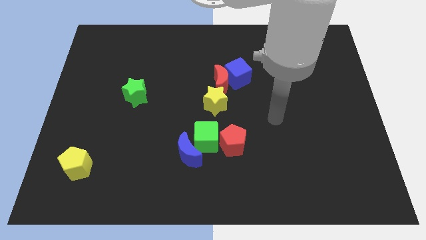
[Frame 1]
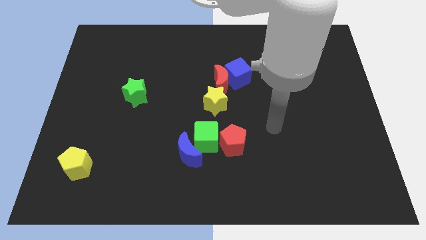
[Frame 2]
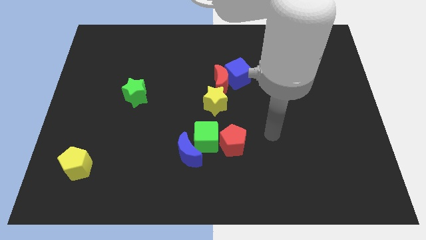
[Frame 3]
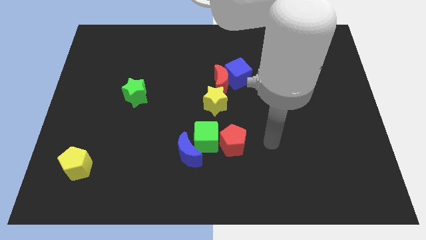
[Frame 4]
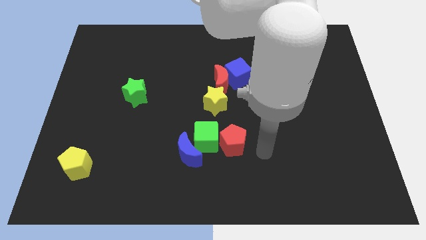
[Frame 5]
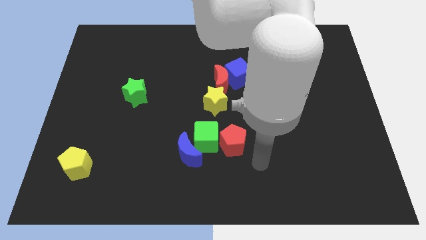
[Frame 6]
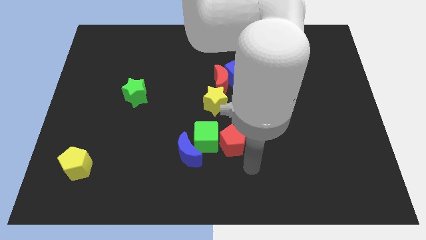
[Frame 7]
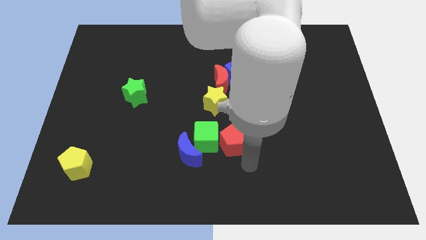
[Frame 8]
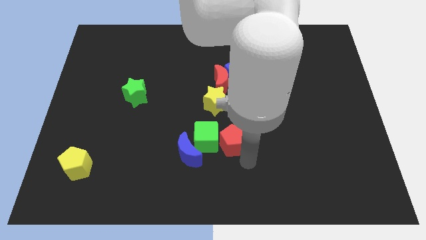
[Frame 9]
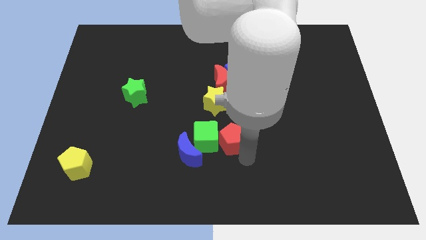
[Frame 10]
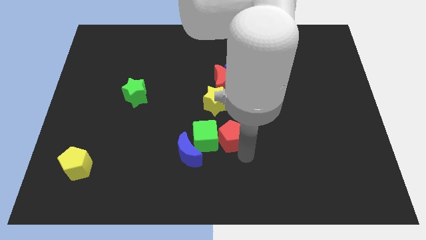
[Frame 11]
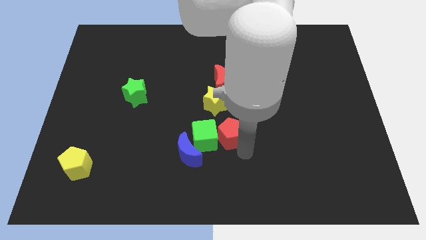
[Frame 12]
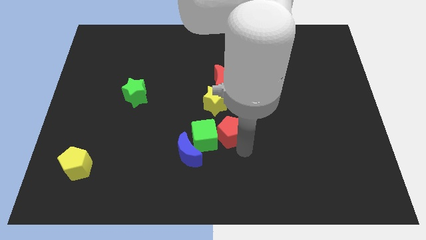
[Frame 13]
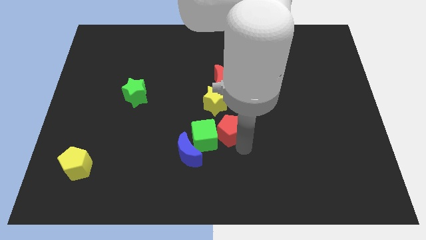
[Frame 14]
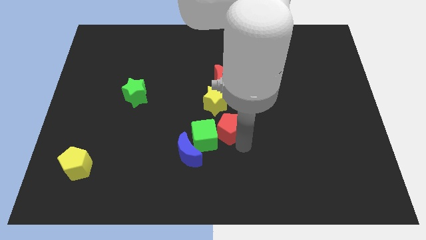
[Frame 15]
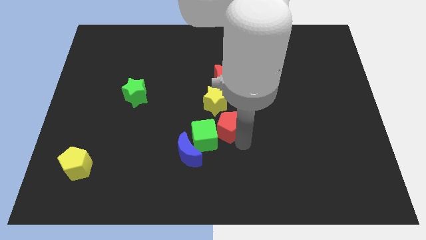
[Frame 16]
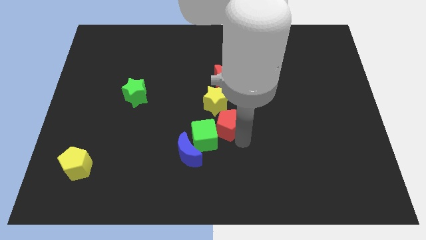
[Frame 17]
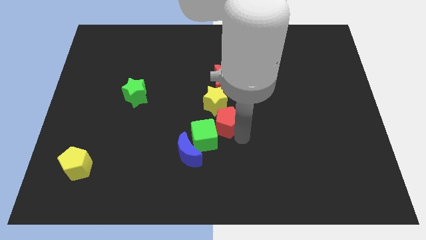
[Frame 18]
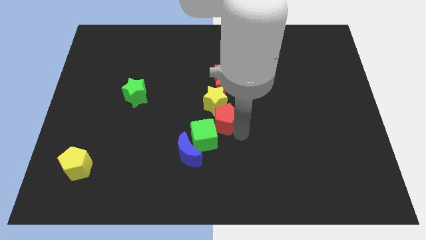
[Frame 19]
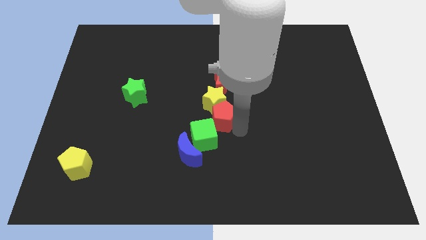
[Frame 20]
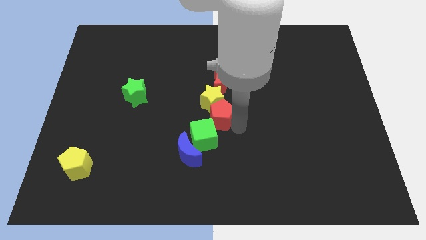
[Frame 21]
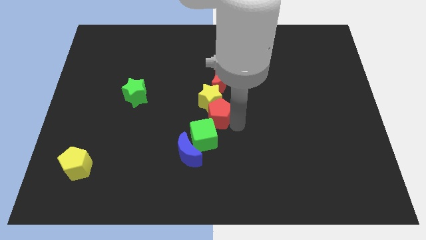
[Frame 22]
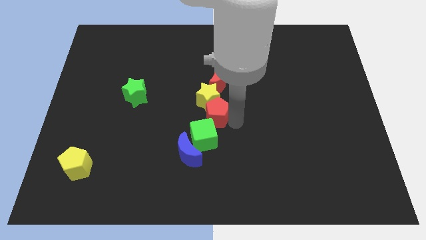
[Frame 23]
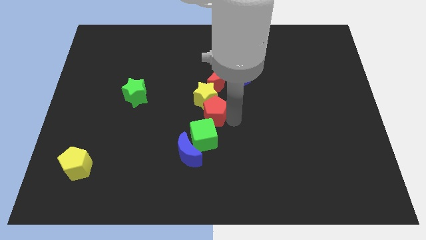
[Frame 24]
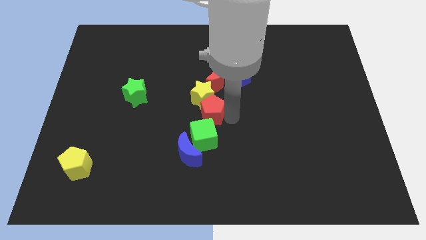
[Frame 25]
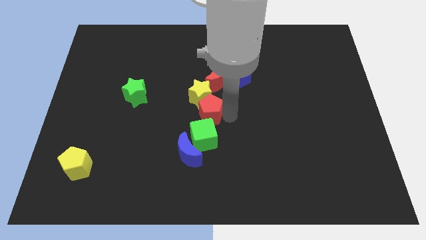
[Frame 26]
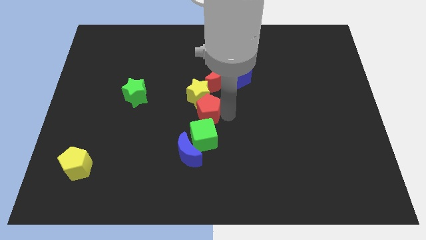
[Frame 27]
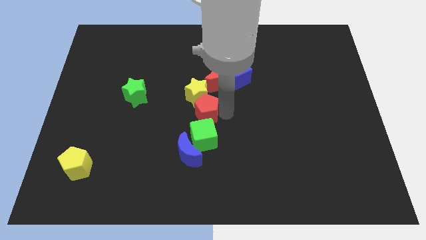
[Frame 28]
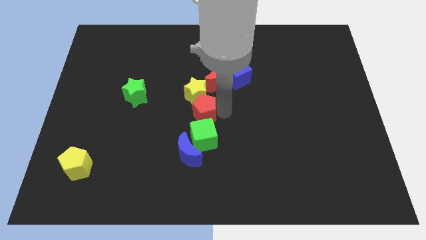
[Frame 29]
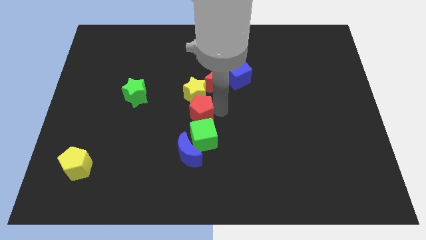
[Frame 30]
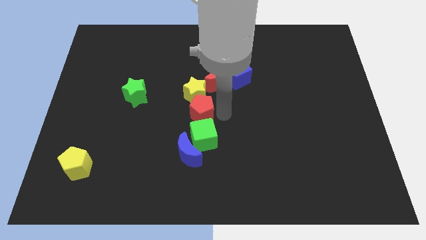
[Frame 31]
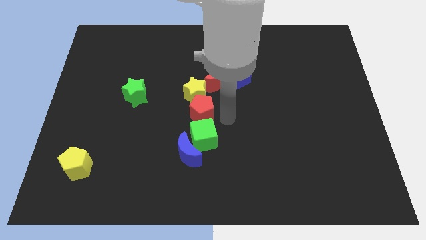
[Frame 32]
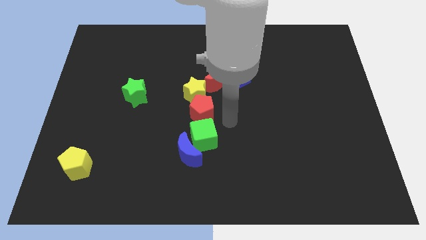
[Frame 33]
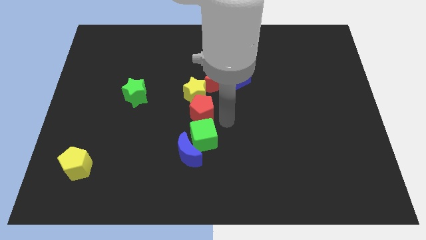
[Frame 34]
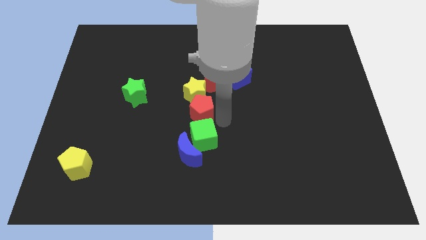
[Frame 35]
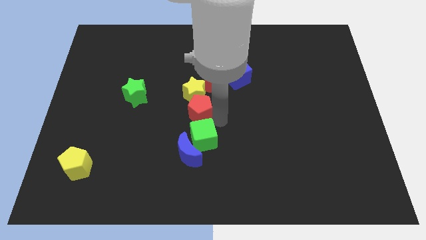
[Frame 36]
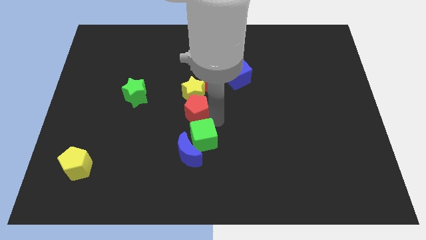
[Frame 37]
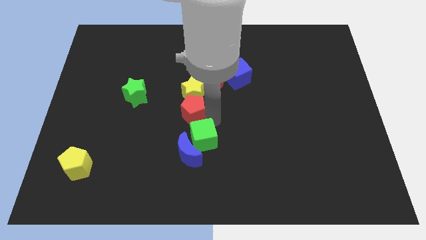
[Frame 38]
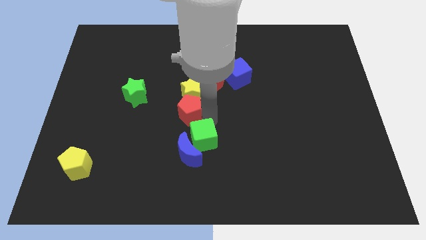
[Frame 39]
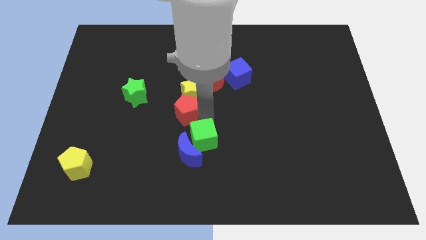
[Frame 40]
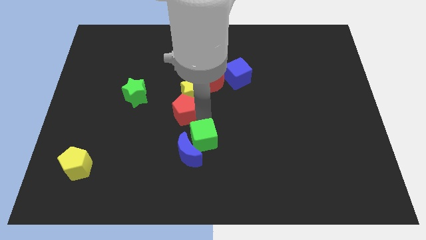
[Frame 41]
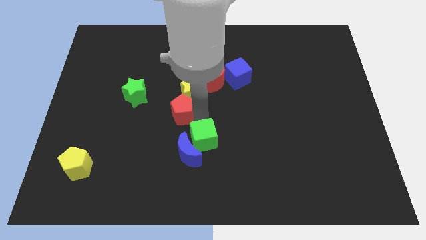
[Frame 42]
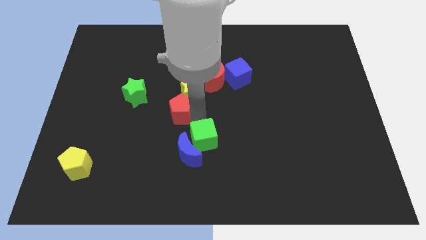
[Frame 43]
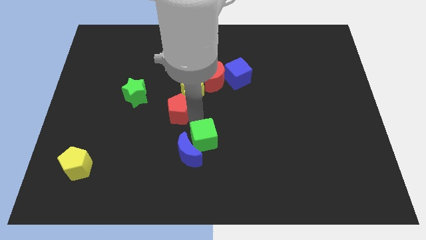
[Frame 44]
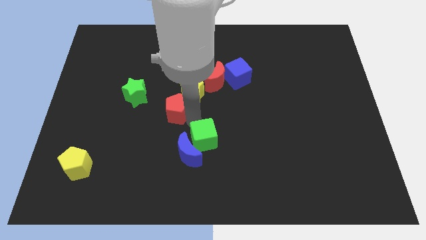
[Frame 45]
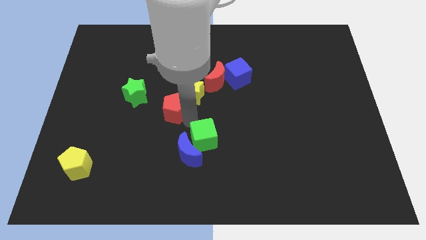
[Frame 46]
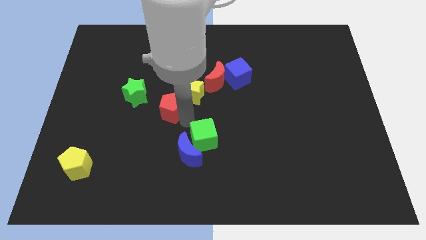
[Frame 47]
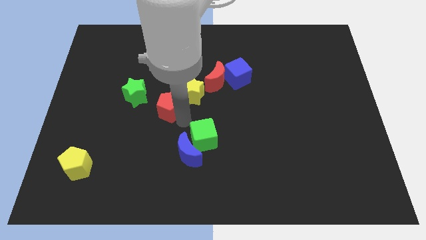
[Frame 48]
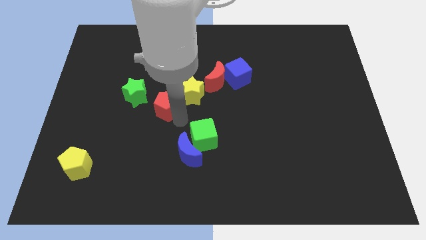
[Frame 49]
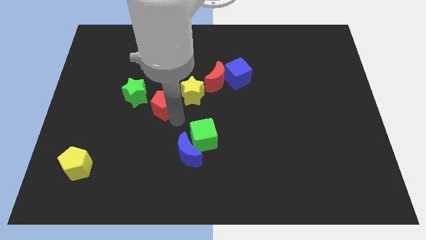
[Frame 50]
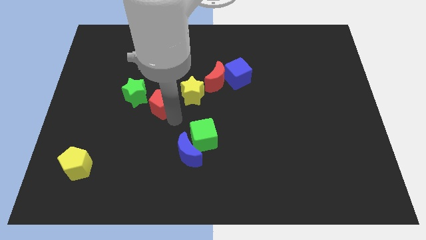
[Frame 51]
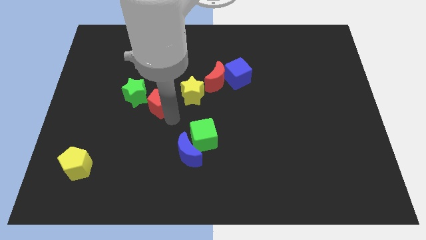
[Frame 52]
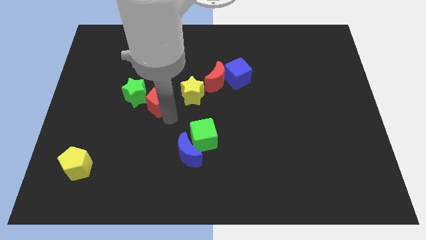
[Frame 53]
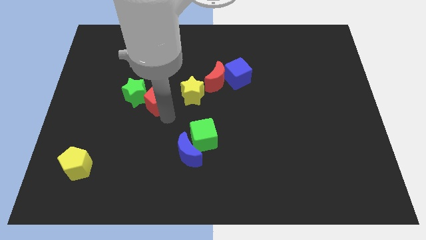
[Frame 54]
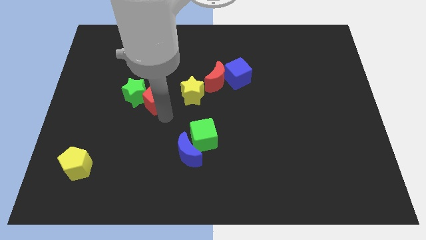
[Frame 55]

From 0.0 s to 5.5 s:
move the red pentagon up and left diagonally

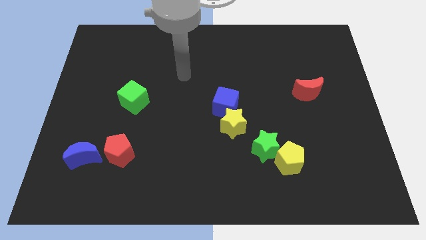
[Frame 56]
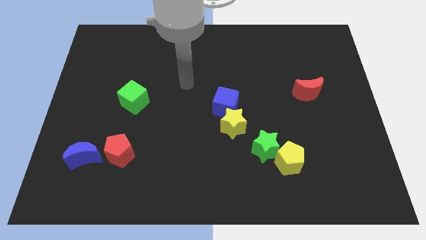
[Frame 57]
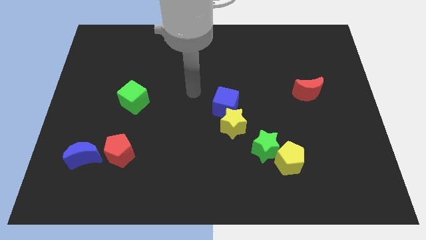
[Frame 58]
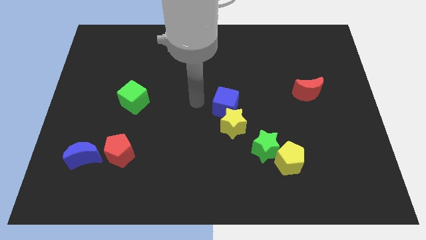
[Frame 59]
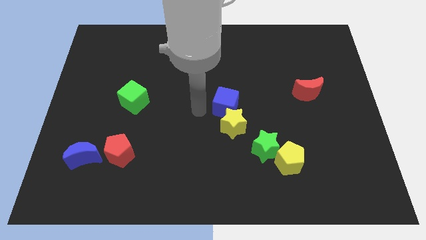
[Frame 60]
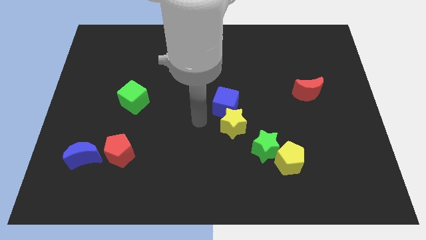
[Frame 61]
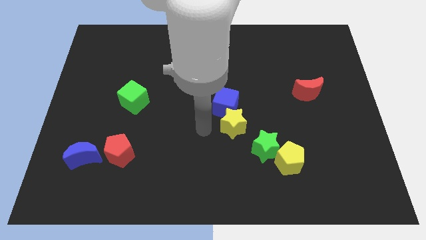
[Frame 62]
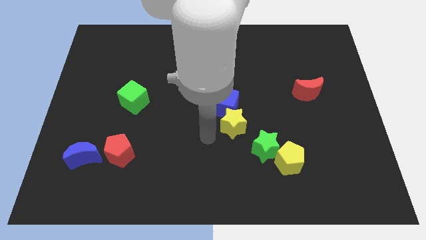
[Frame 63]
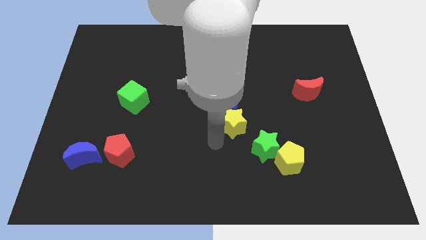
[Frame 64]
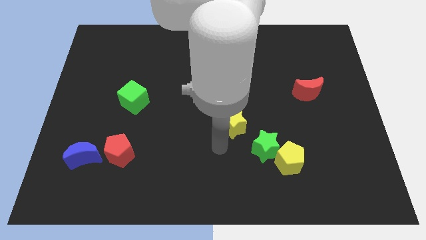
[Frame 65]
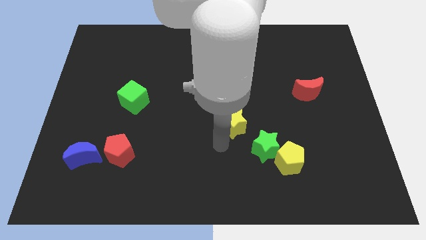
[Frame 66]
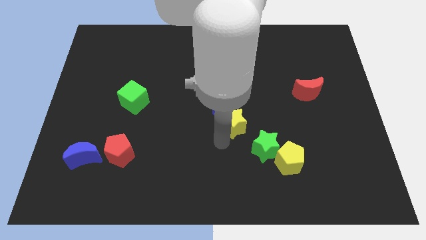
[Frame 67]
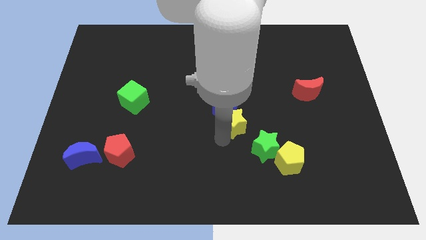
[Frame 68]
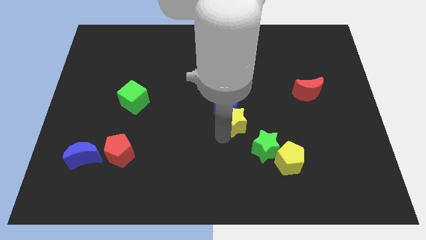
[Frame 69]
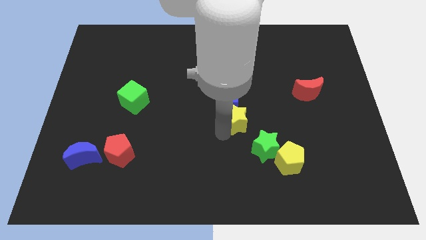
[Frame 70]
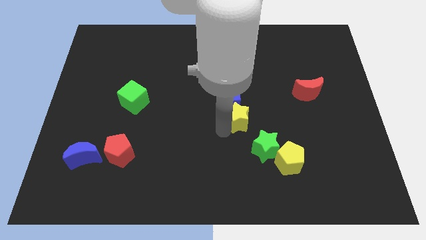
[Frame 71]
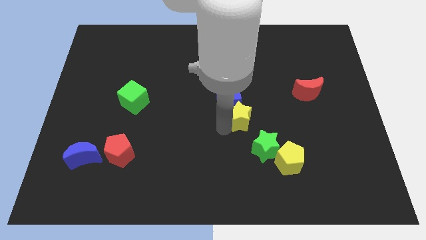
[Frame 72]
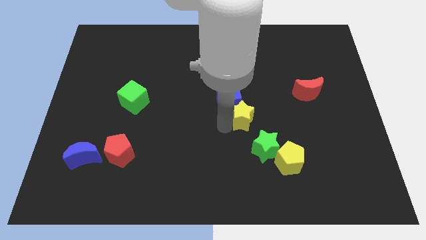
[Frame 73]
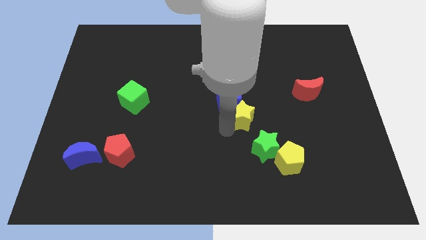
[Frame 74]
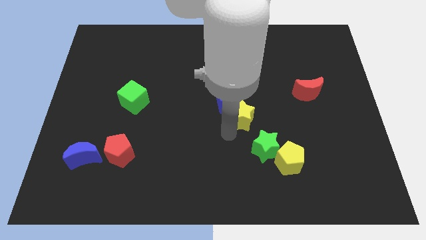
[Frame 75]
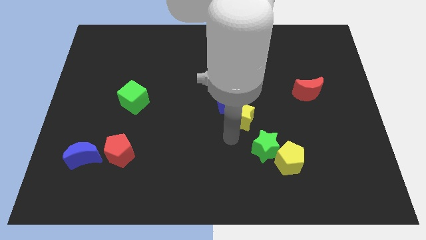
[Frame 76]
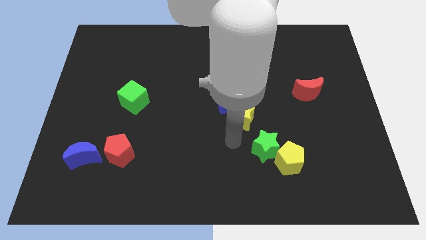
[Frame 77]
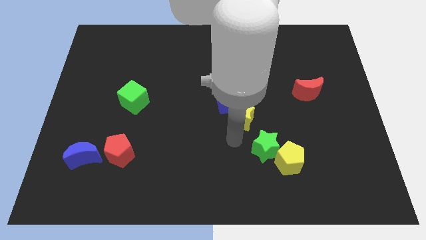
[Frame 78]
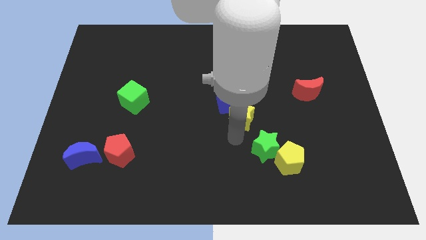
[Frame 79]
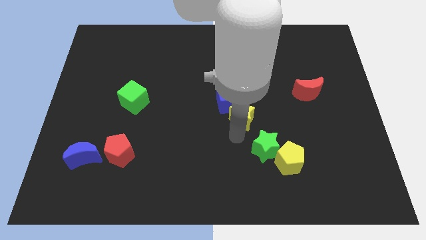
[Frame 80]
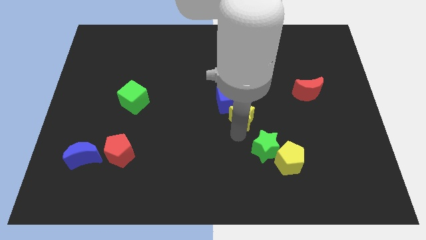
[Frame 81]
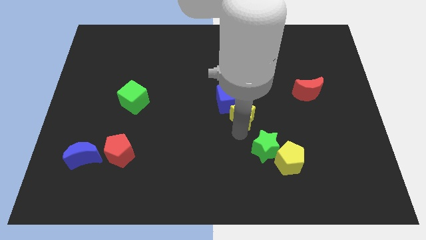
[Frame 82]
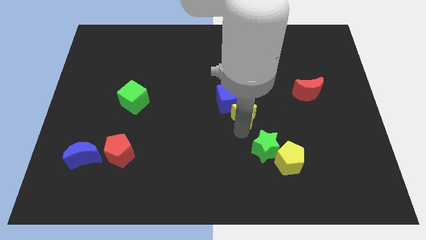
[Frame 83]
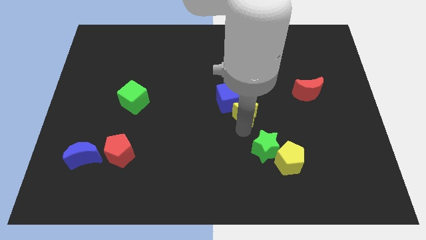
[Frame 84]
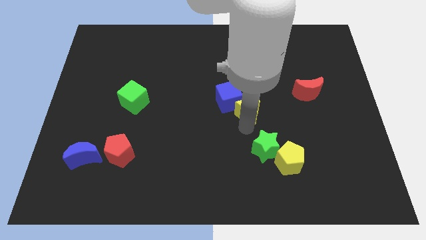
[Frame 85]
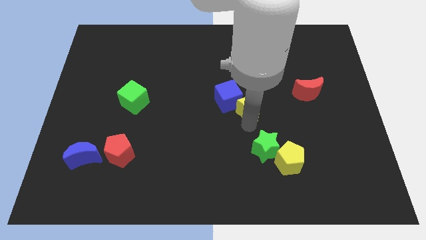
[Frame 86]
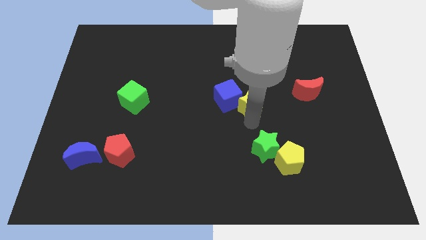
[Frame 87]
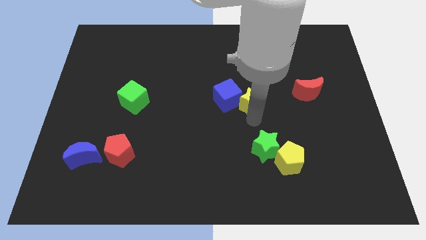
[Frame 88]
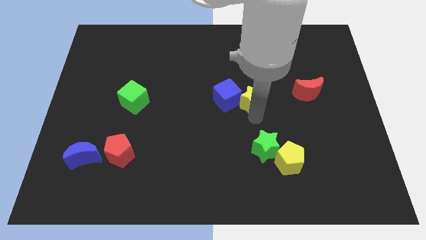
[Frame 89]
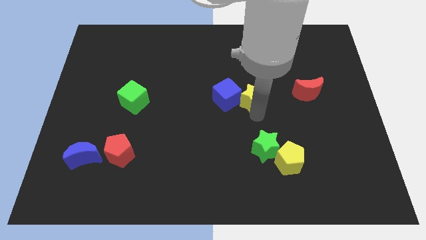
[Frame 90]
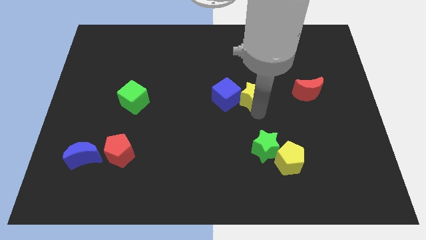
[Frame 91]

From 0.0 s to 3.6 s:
slightly move the yellow star up
